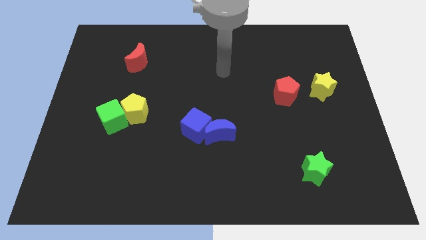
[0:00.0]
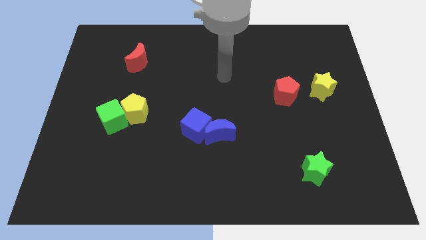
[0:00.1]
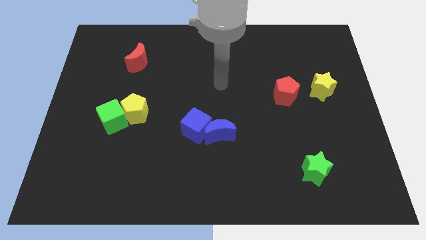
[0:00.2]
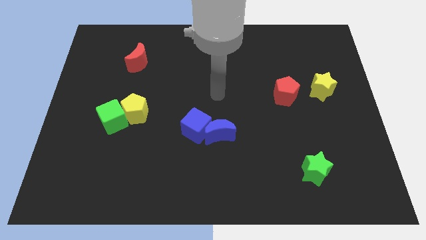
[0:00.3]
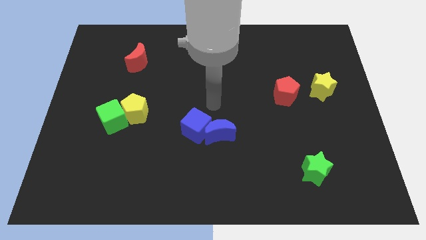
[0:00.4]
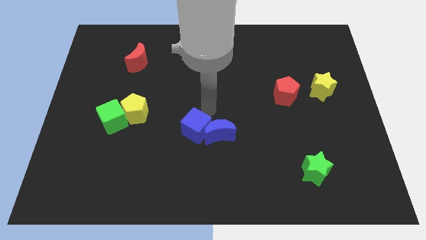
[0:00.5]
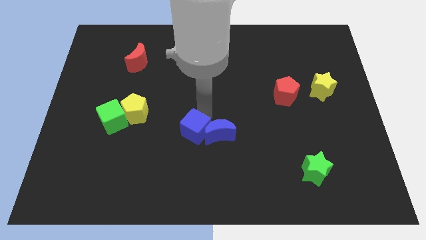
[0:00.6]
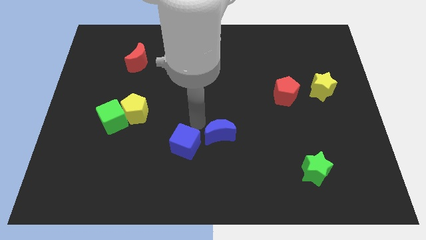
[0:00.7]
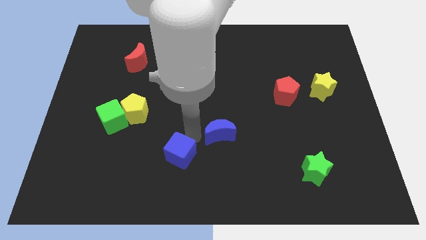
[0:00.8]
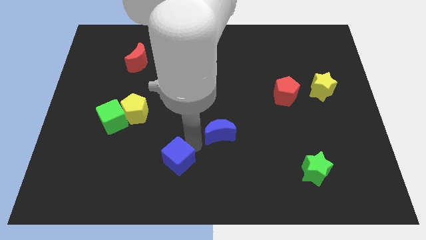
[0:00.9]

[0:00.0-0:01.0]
pull the blue moon apart from the blue cube

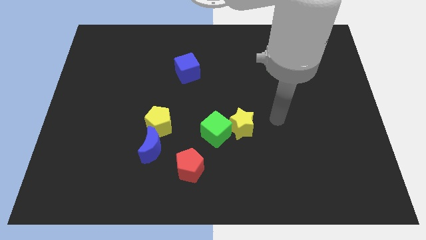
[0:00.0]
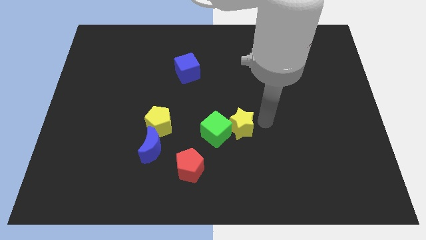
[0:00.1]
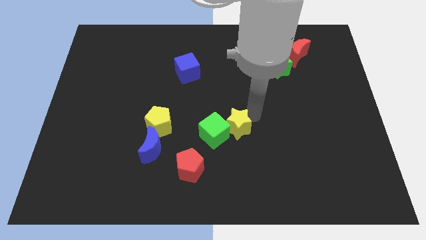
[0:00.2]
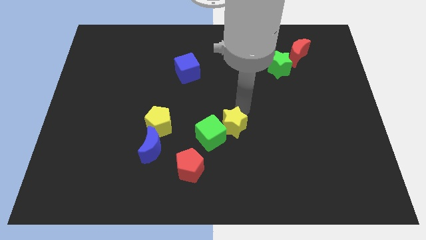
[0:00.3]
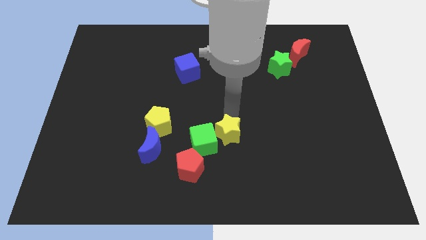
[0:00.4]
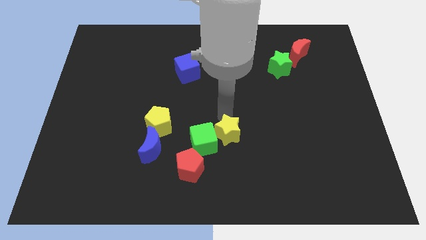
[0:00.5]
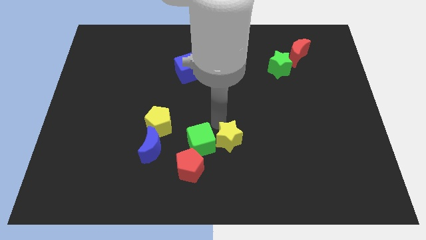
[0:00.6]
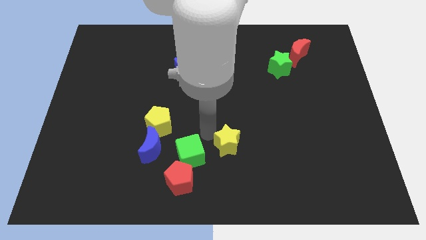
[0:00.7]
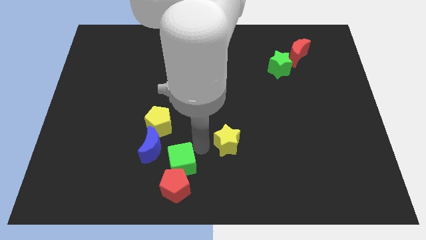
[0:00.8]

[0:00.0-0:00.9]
move the yellow star away from the green cube

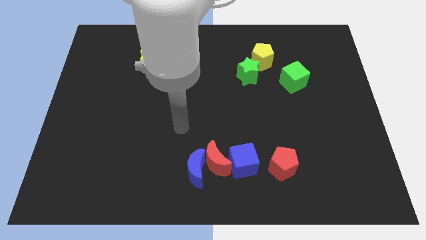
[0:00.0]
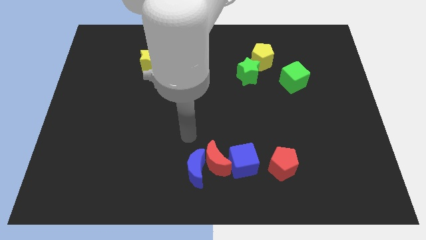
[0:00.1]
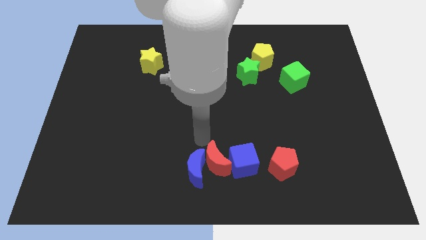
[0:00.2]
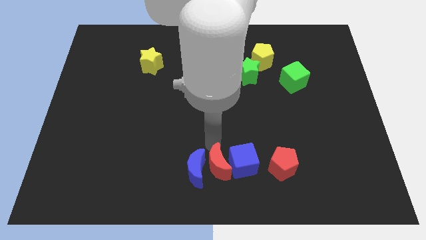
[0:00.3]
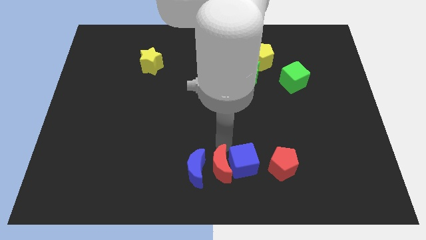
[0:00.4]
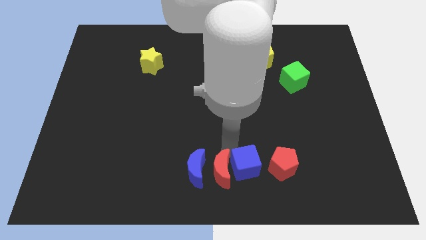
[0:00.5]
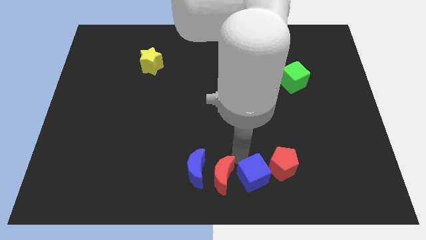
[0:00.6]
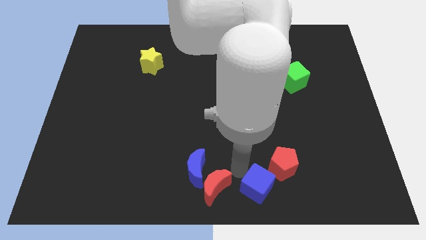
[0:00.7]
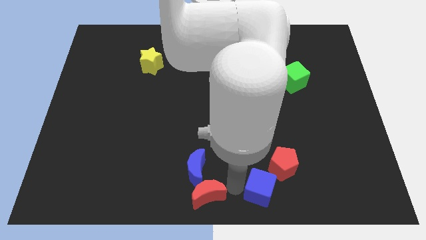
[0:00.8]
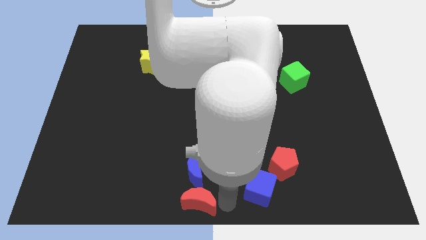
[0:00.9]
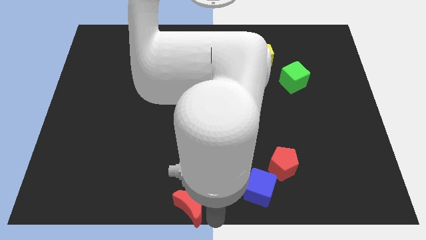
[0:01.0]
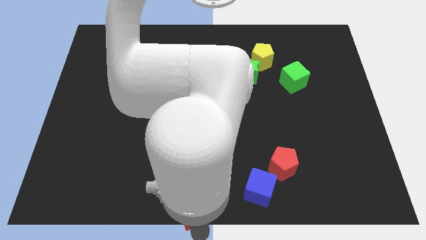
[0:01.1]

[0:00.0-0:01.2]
separate the red moon from the blue moon and blue cube

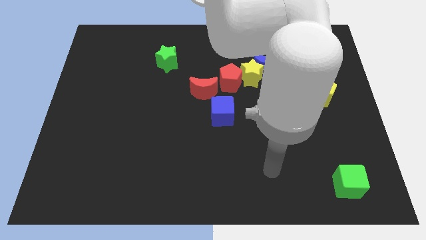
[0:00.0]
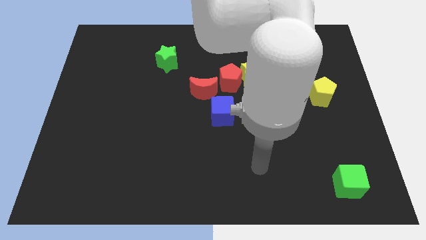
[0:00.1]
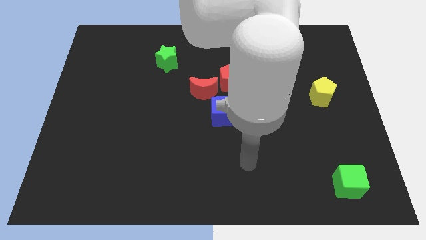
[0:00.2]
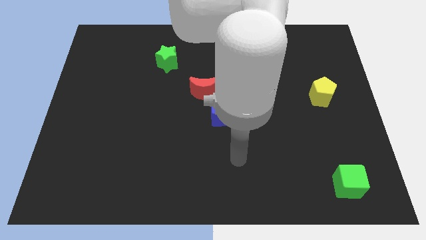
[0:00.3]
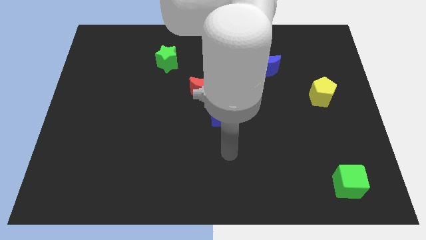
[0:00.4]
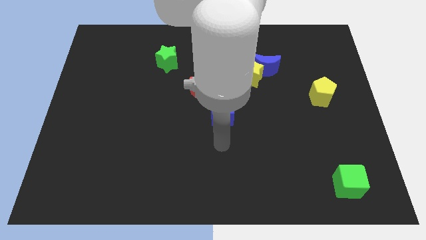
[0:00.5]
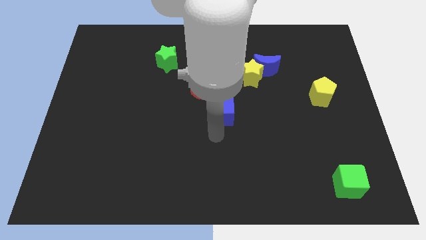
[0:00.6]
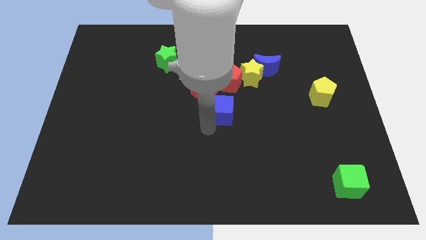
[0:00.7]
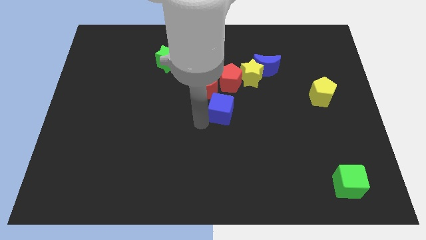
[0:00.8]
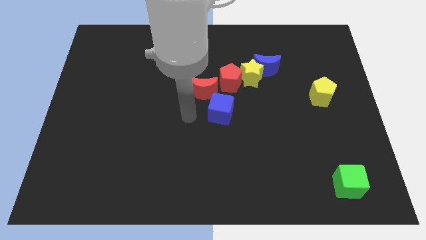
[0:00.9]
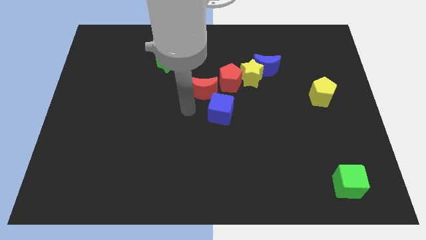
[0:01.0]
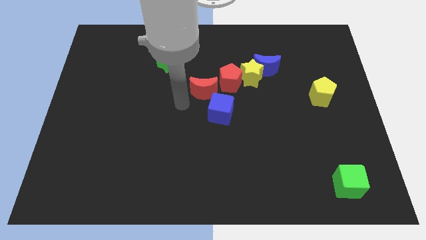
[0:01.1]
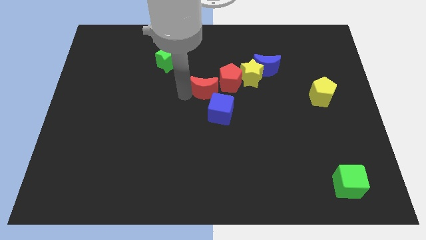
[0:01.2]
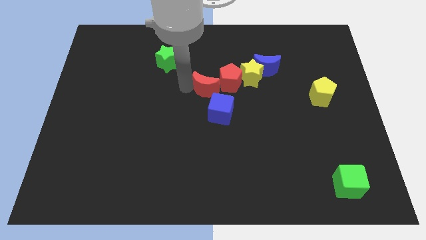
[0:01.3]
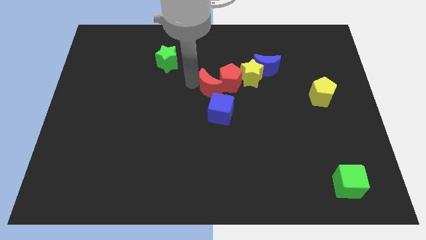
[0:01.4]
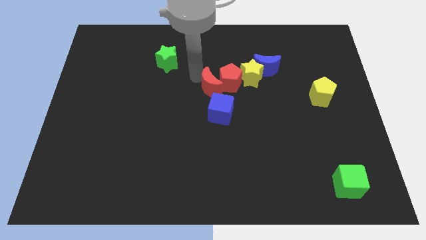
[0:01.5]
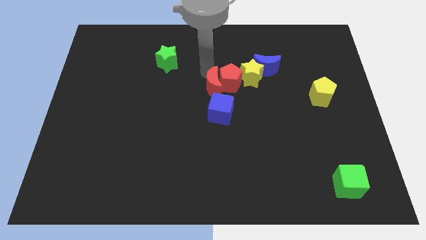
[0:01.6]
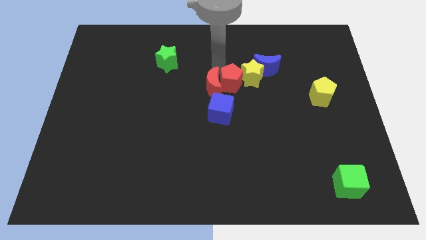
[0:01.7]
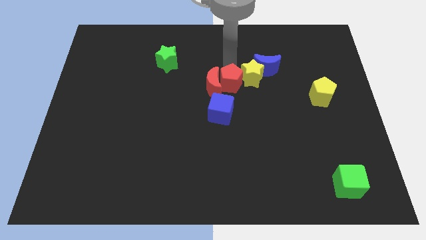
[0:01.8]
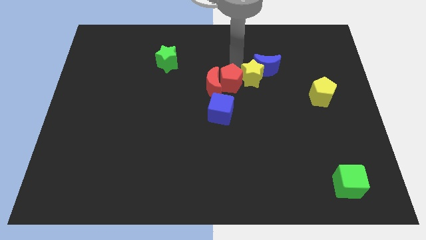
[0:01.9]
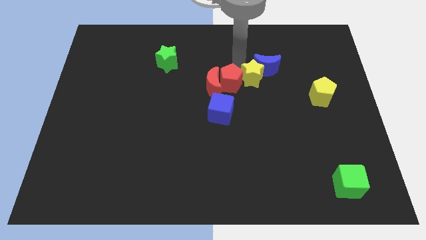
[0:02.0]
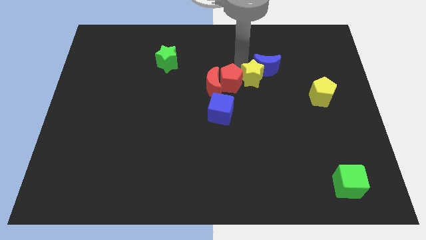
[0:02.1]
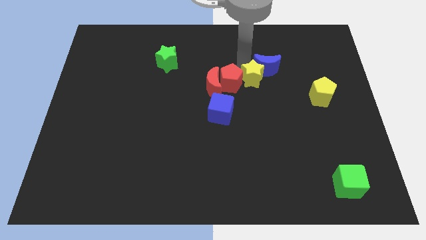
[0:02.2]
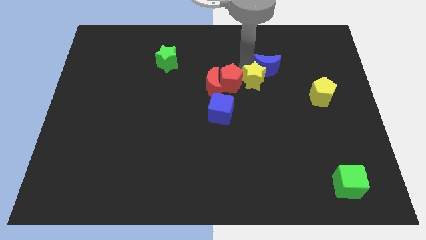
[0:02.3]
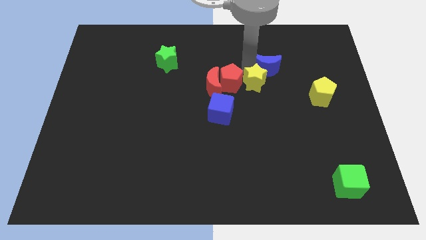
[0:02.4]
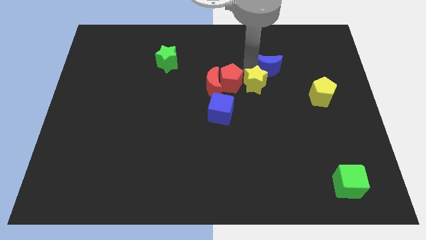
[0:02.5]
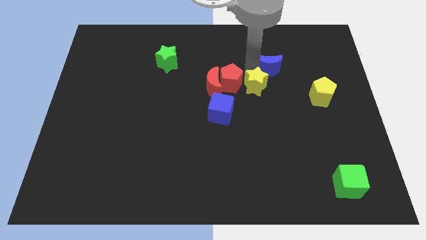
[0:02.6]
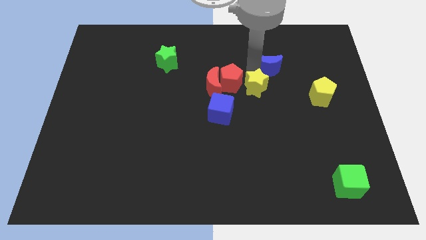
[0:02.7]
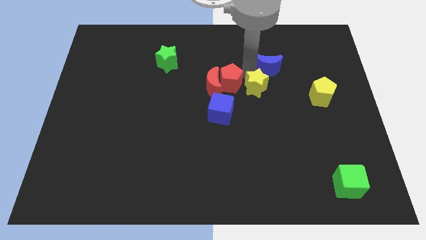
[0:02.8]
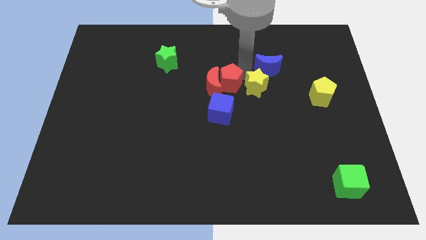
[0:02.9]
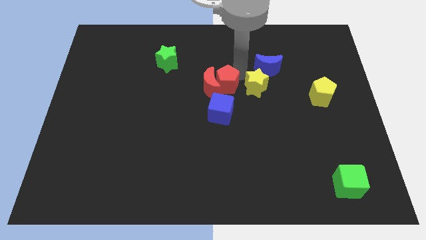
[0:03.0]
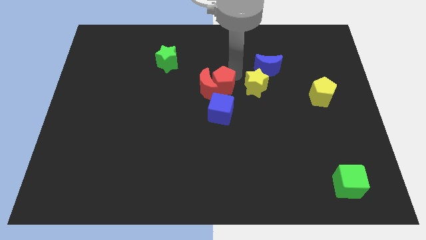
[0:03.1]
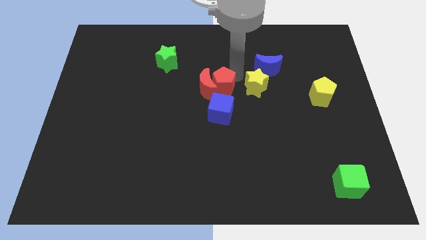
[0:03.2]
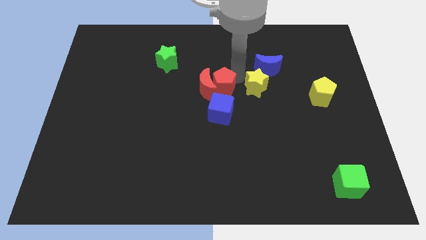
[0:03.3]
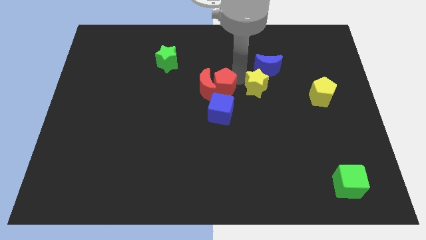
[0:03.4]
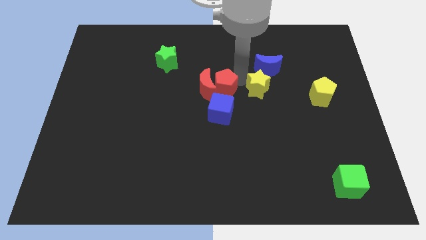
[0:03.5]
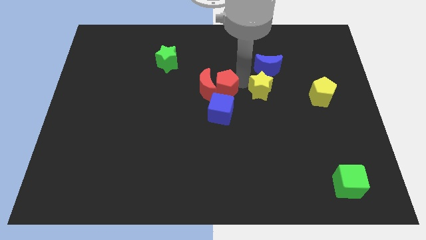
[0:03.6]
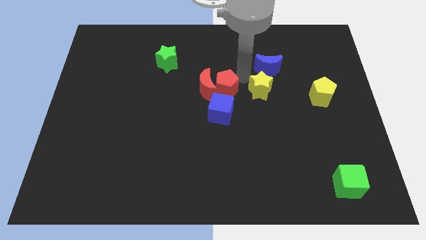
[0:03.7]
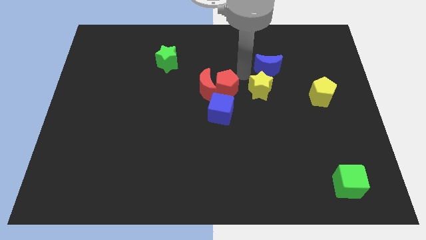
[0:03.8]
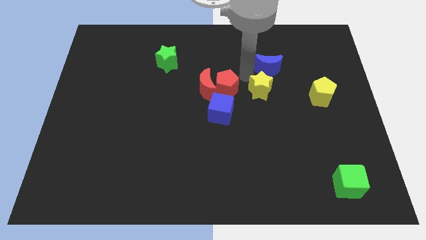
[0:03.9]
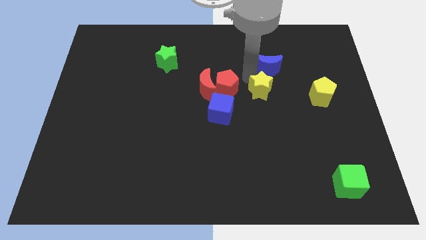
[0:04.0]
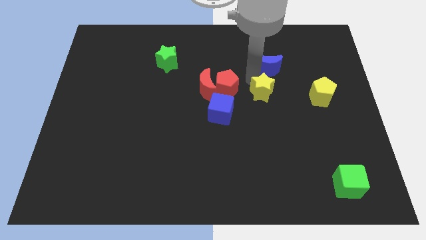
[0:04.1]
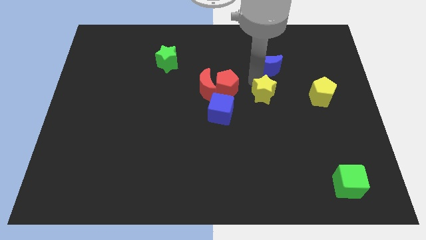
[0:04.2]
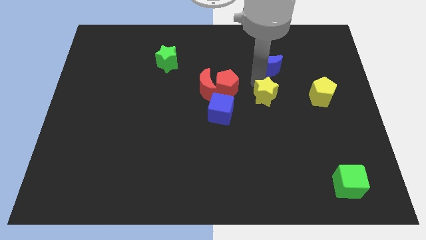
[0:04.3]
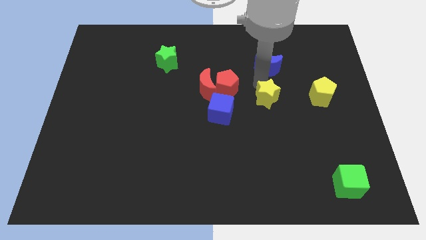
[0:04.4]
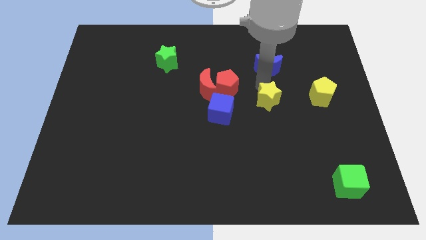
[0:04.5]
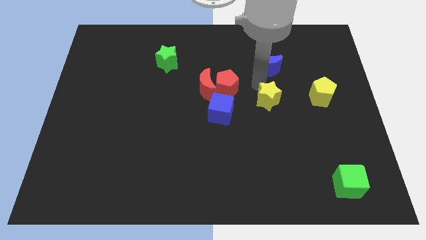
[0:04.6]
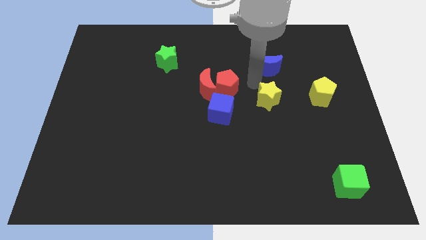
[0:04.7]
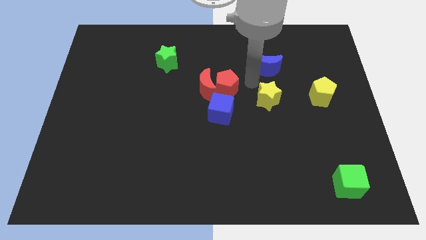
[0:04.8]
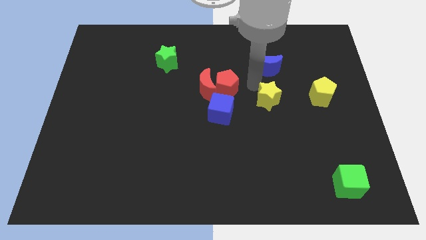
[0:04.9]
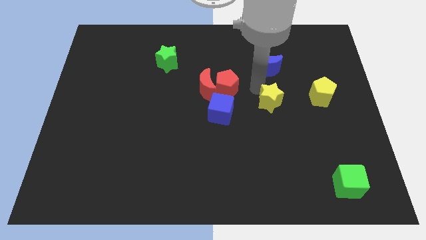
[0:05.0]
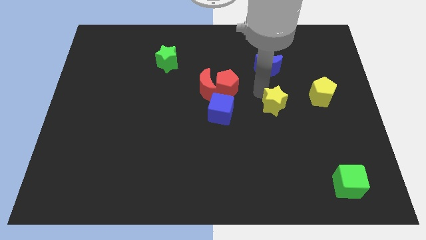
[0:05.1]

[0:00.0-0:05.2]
move the yellow star away from the blue moon and red pentagon

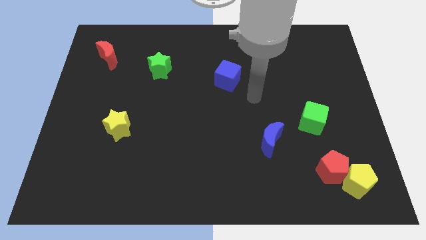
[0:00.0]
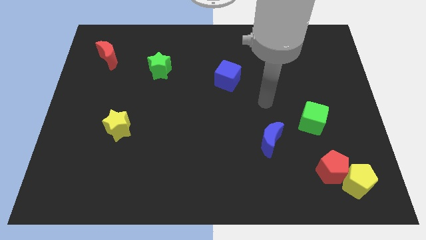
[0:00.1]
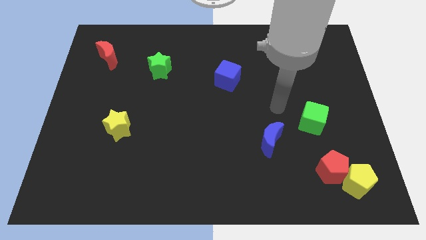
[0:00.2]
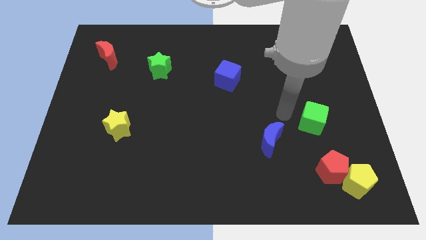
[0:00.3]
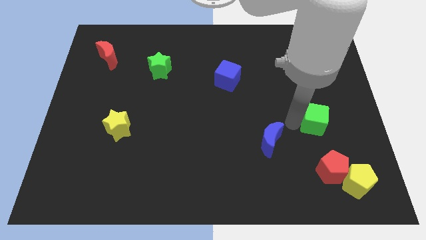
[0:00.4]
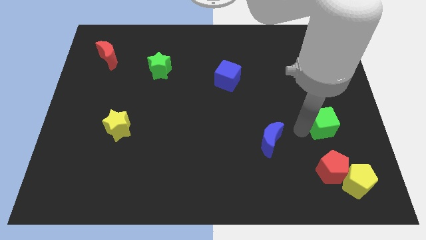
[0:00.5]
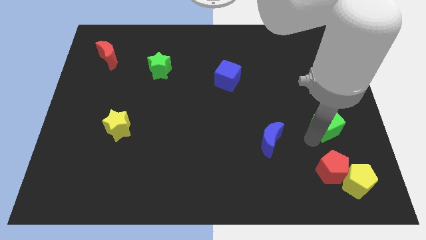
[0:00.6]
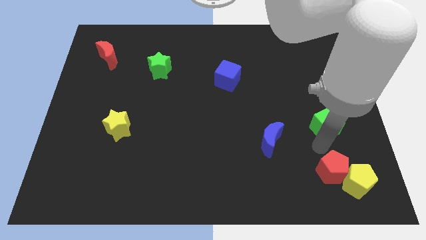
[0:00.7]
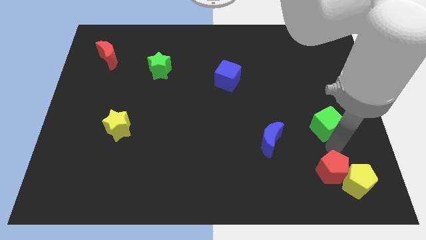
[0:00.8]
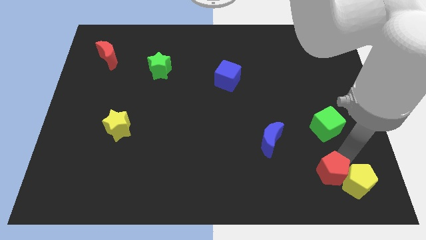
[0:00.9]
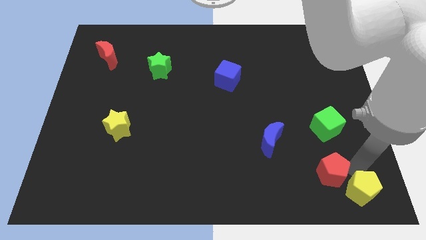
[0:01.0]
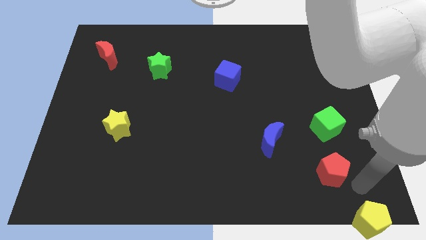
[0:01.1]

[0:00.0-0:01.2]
move the red pentagon away from the yellow pentagon
